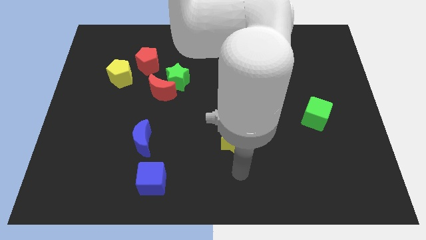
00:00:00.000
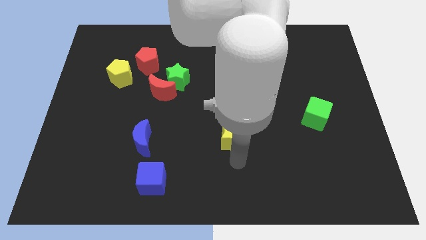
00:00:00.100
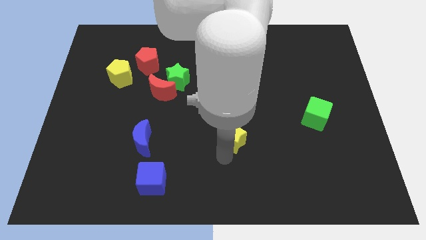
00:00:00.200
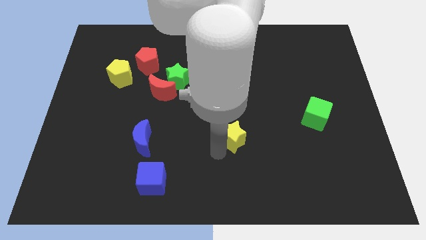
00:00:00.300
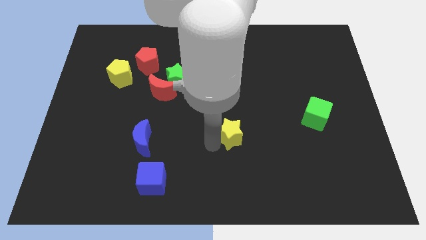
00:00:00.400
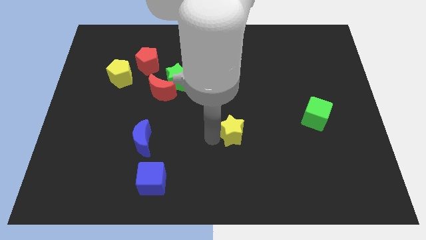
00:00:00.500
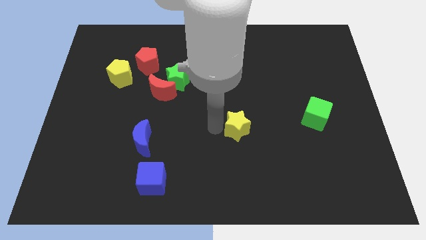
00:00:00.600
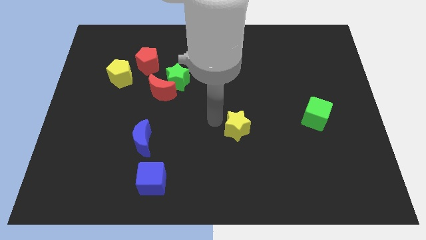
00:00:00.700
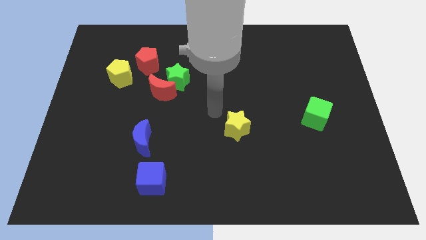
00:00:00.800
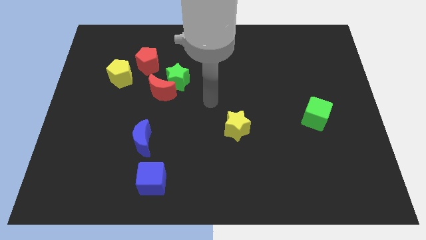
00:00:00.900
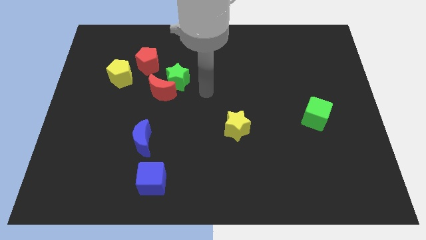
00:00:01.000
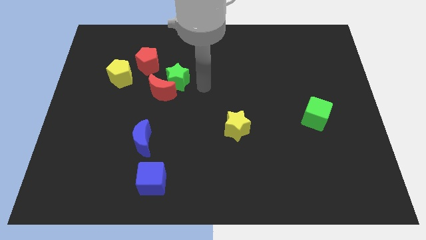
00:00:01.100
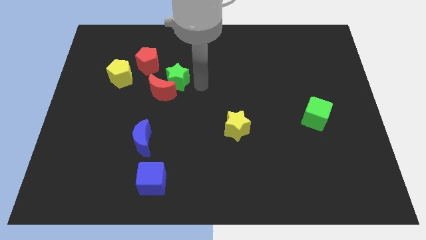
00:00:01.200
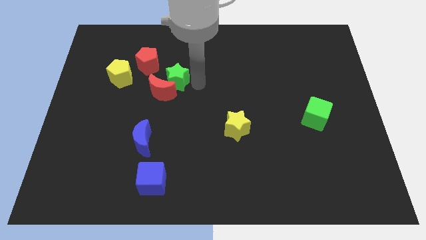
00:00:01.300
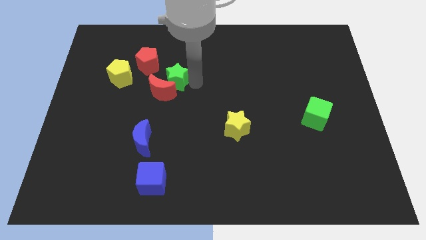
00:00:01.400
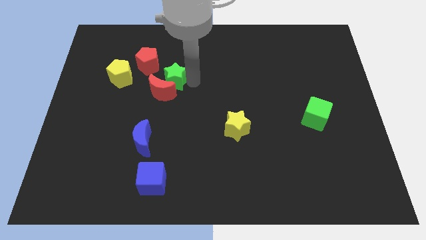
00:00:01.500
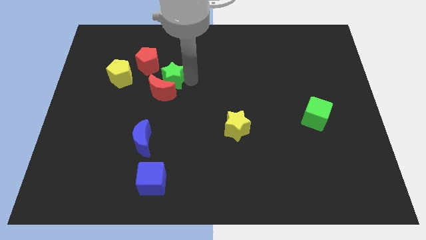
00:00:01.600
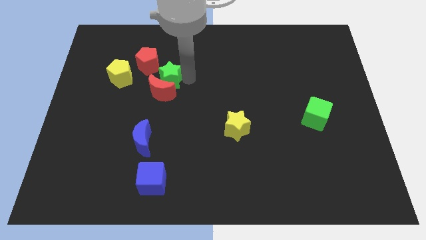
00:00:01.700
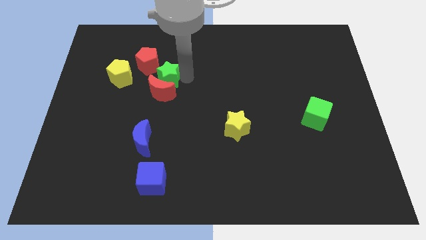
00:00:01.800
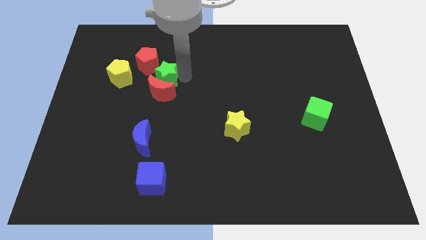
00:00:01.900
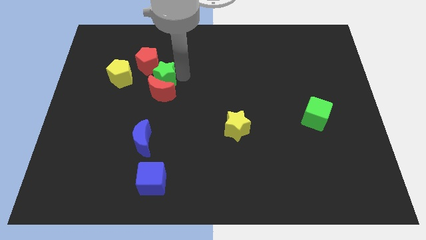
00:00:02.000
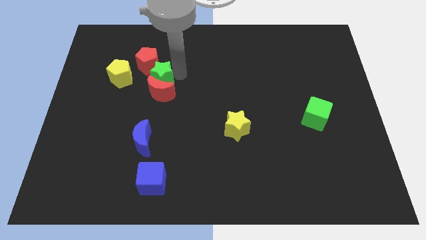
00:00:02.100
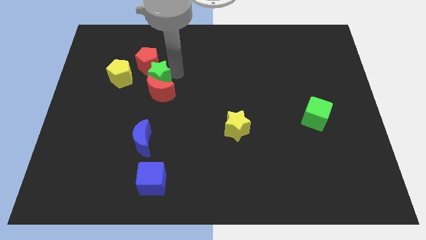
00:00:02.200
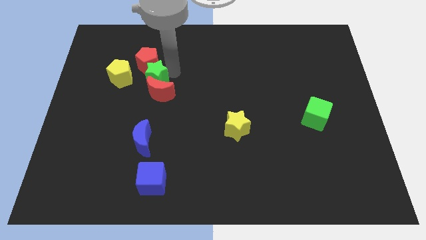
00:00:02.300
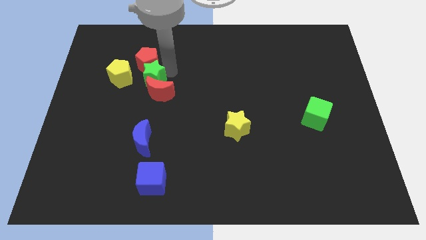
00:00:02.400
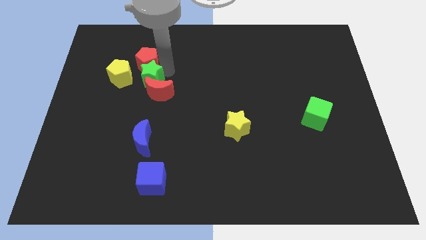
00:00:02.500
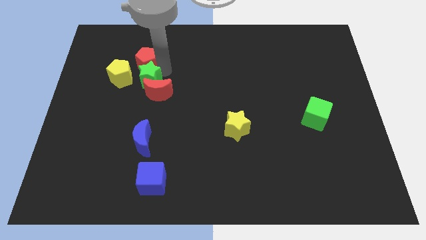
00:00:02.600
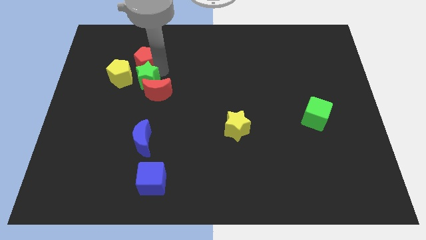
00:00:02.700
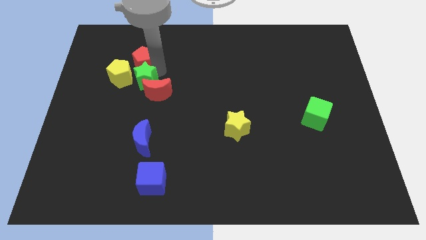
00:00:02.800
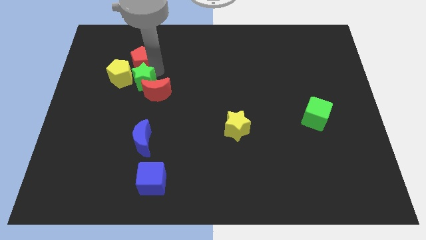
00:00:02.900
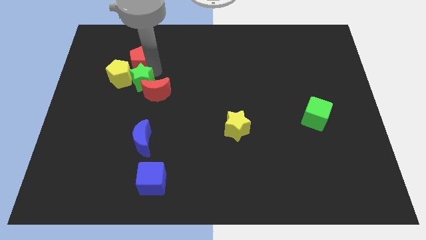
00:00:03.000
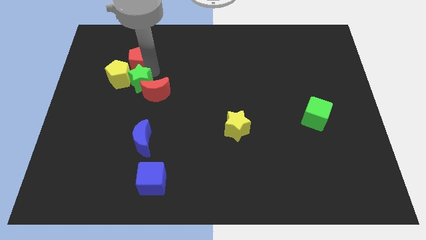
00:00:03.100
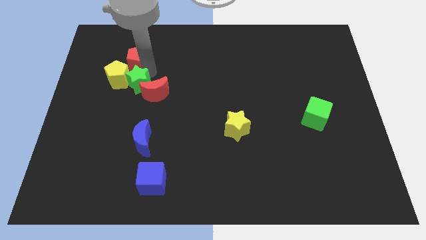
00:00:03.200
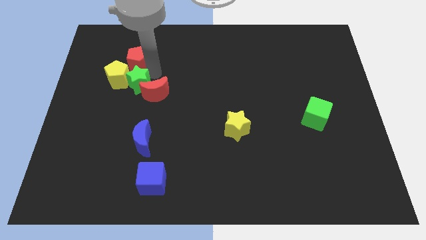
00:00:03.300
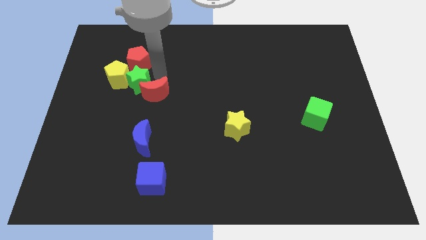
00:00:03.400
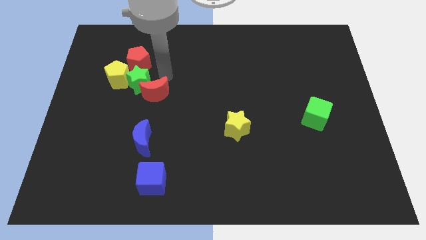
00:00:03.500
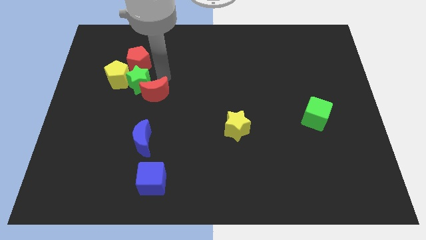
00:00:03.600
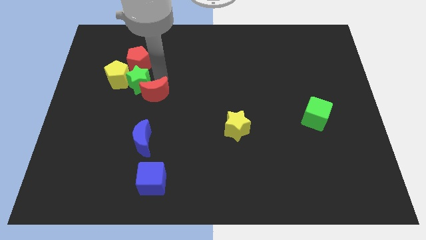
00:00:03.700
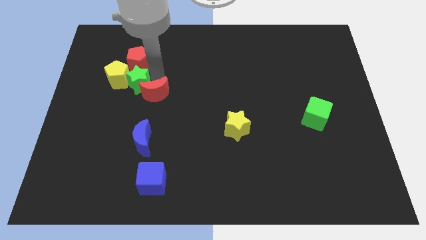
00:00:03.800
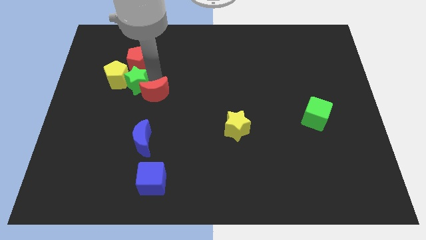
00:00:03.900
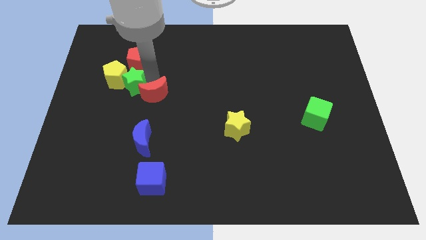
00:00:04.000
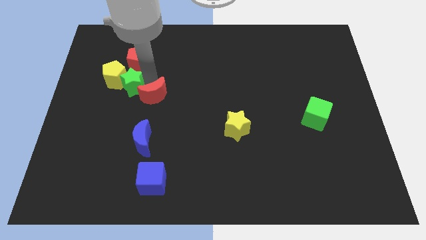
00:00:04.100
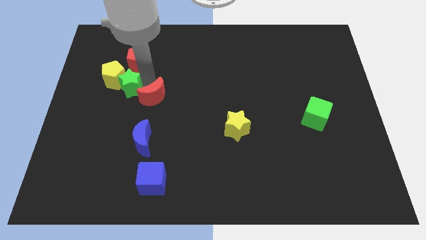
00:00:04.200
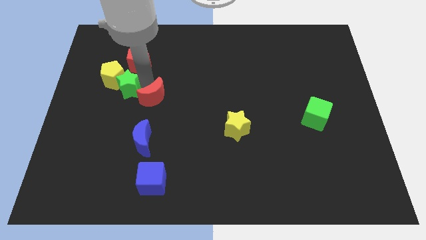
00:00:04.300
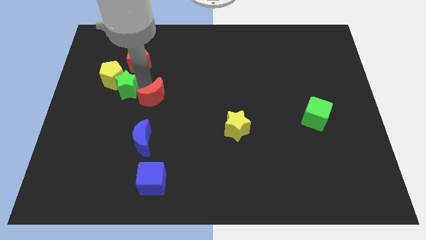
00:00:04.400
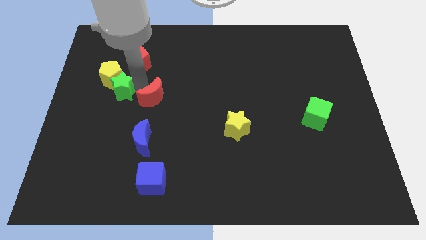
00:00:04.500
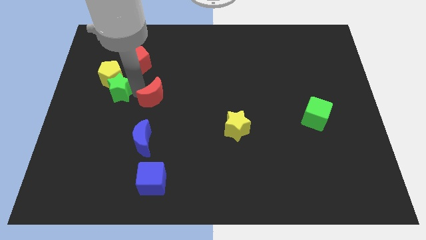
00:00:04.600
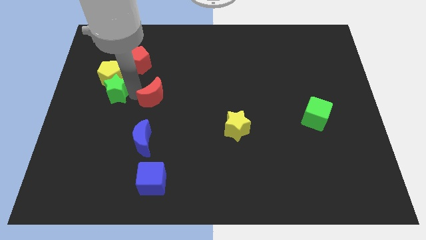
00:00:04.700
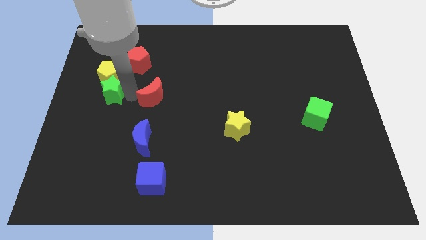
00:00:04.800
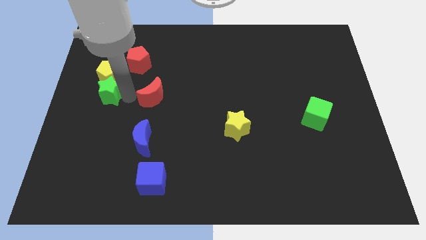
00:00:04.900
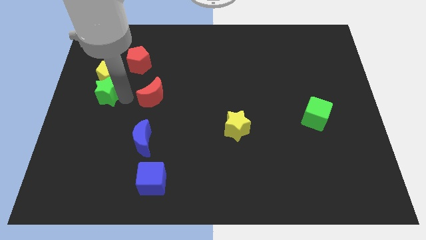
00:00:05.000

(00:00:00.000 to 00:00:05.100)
slide the green star to the left side of the board
